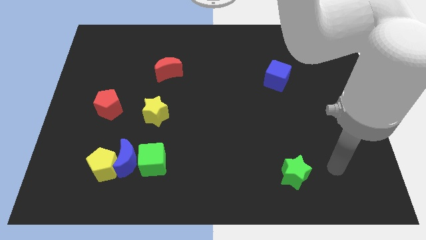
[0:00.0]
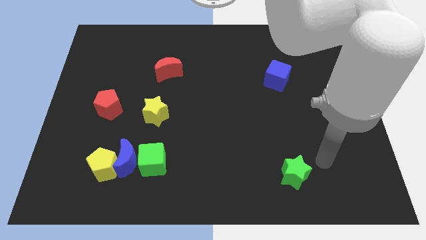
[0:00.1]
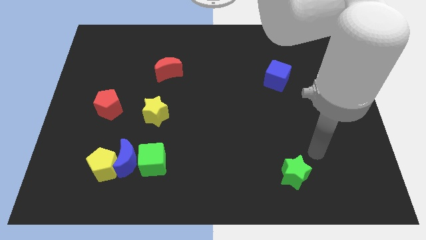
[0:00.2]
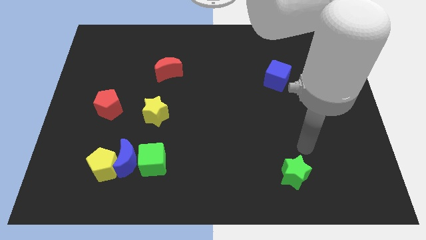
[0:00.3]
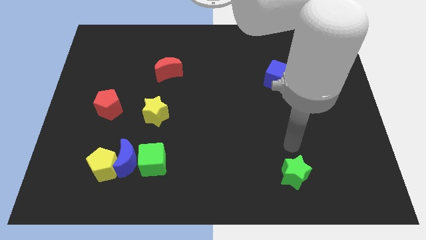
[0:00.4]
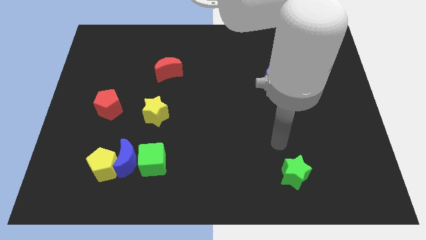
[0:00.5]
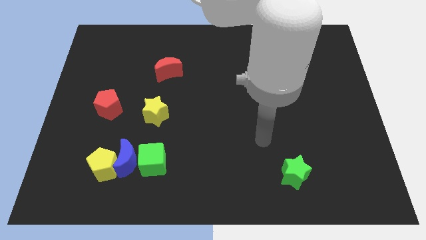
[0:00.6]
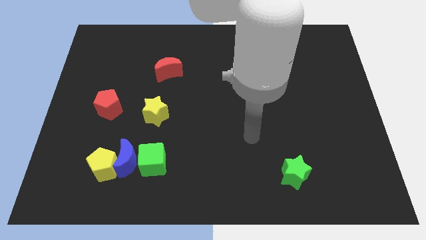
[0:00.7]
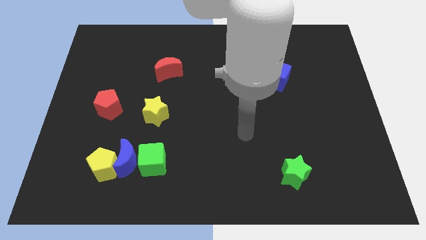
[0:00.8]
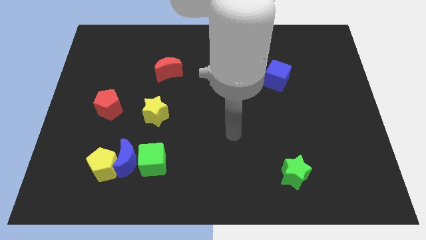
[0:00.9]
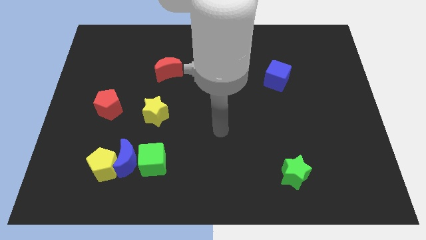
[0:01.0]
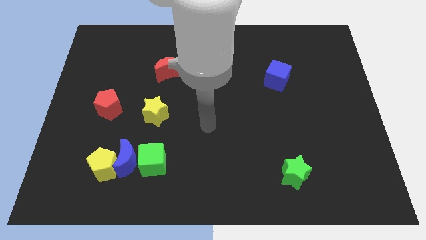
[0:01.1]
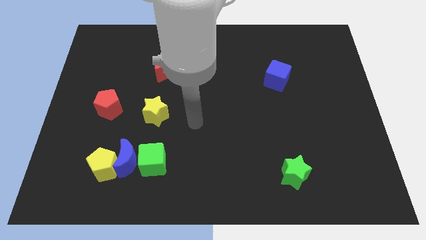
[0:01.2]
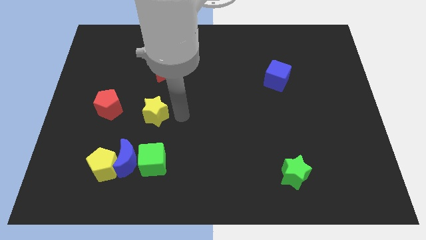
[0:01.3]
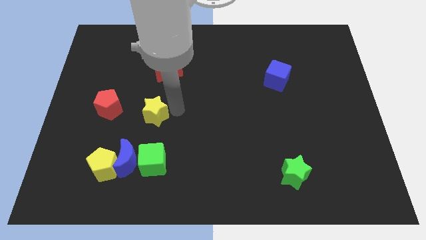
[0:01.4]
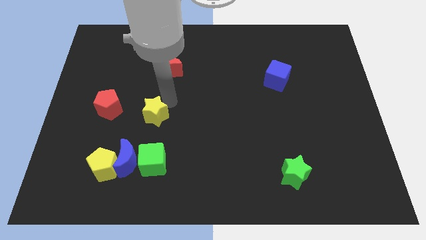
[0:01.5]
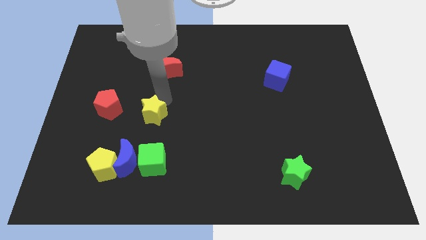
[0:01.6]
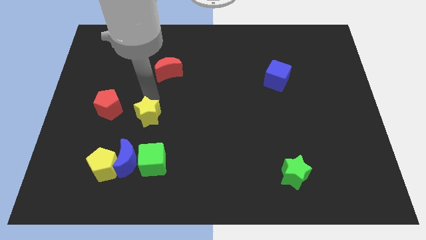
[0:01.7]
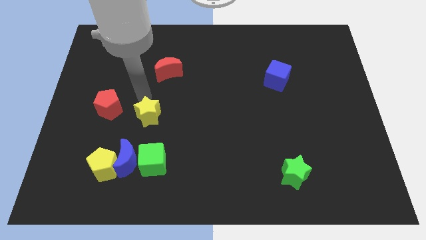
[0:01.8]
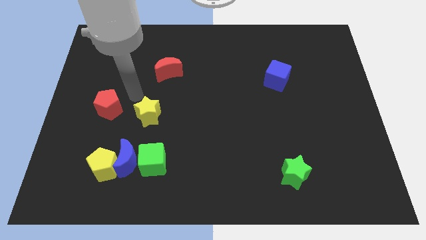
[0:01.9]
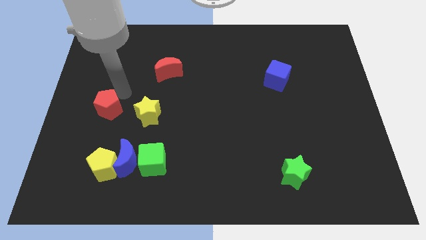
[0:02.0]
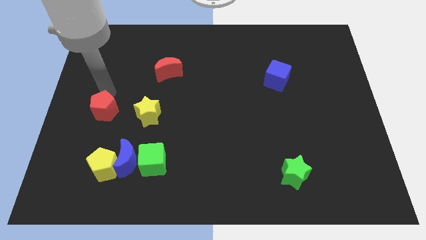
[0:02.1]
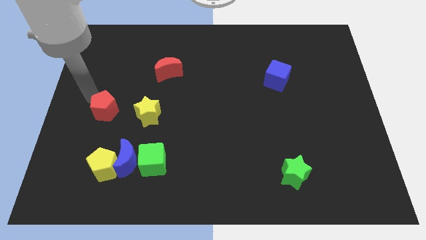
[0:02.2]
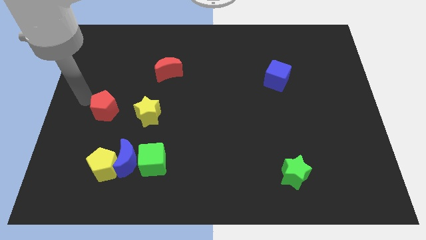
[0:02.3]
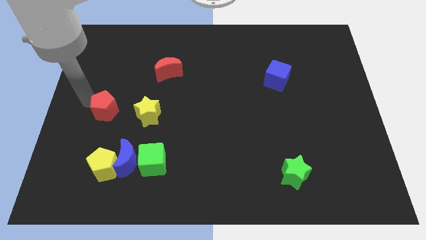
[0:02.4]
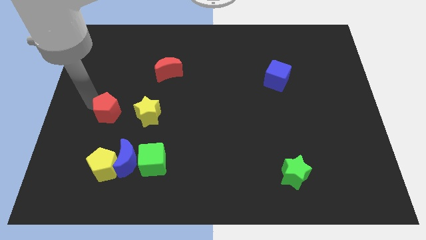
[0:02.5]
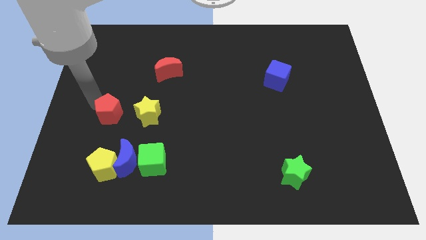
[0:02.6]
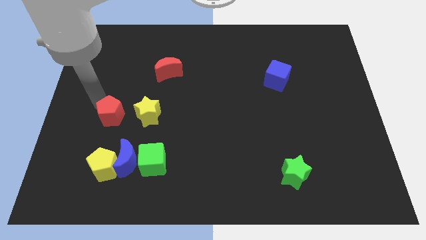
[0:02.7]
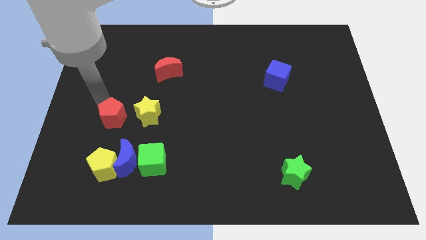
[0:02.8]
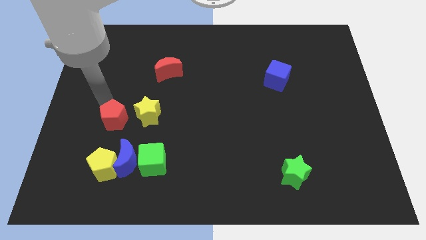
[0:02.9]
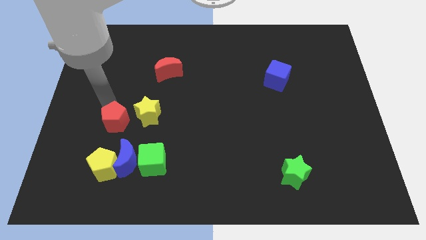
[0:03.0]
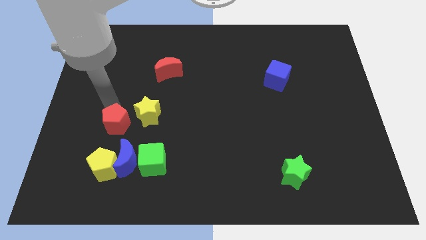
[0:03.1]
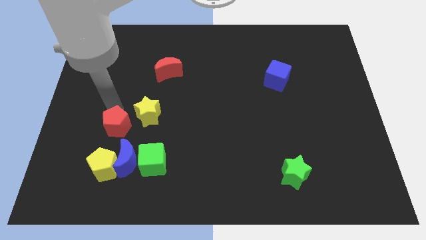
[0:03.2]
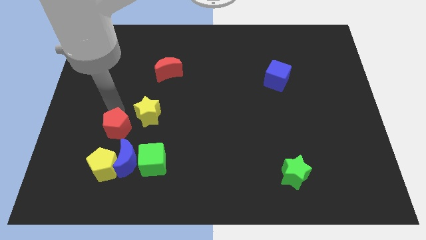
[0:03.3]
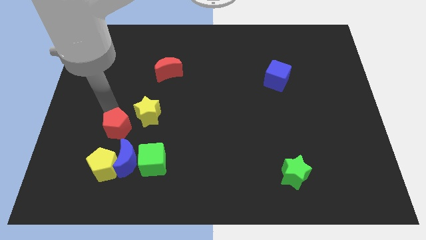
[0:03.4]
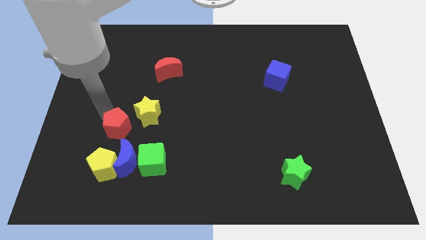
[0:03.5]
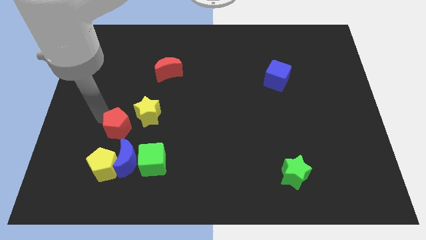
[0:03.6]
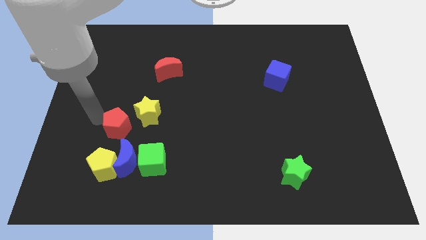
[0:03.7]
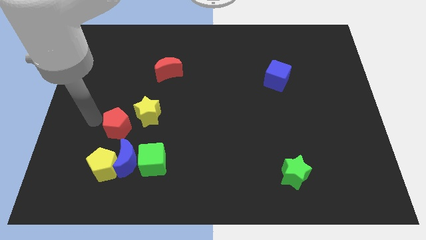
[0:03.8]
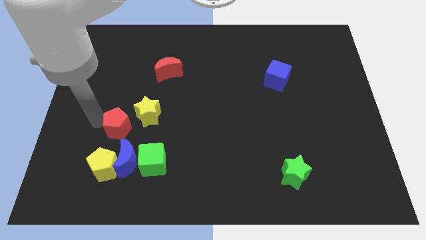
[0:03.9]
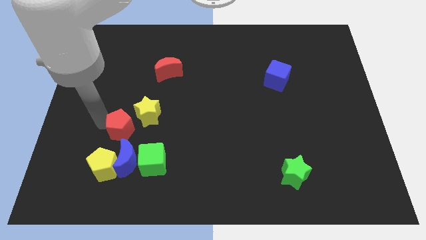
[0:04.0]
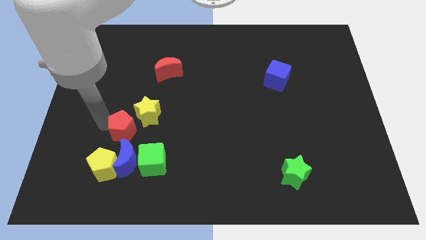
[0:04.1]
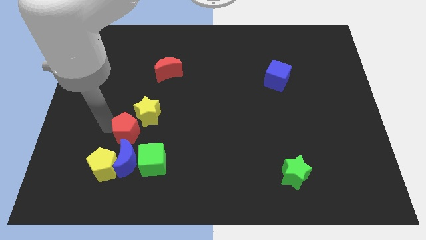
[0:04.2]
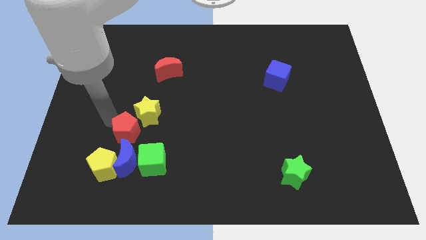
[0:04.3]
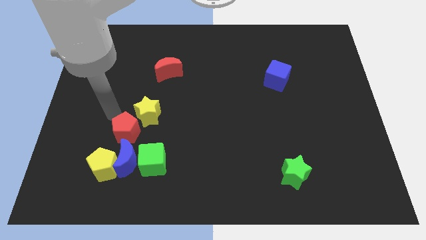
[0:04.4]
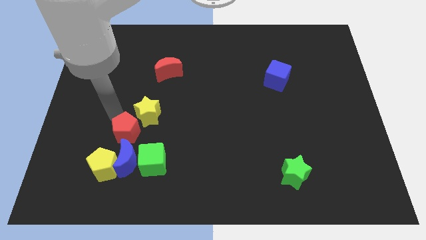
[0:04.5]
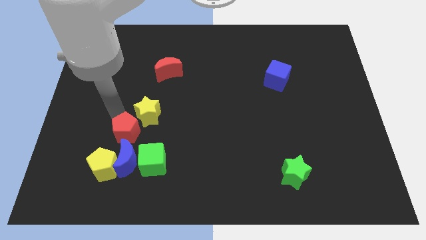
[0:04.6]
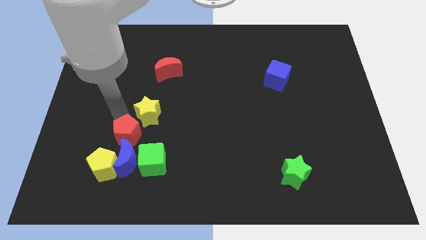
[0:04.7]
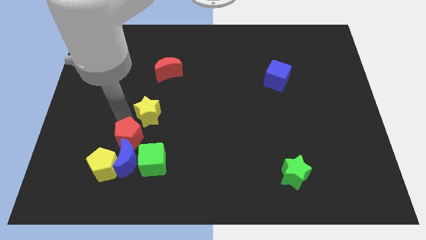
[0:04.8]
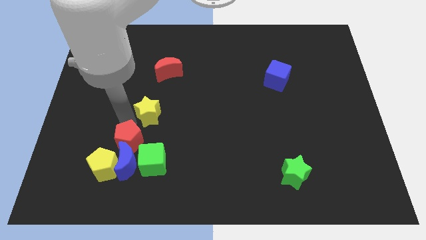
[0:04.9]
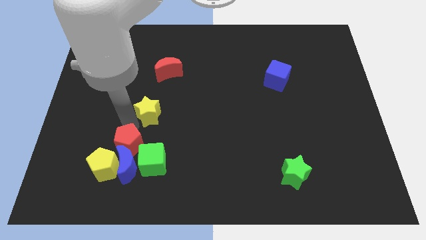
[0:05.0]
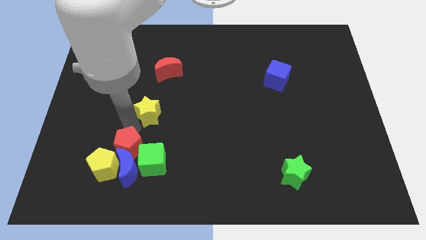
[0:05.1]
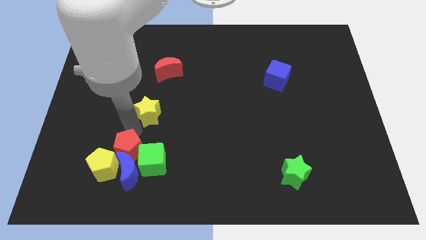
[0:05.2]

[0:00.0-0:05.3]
move the red pentagon to the green cube
